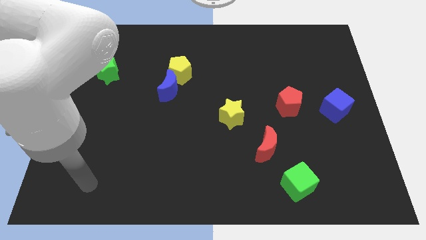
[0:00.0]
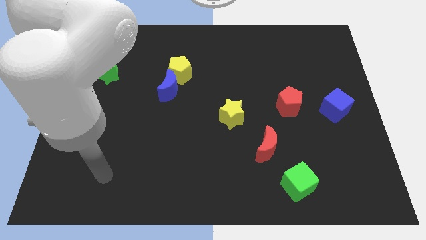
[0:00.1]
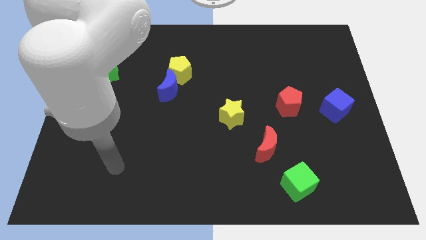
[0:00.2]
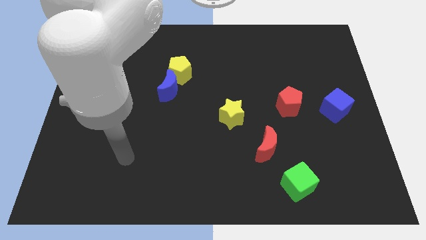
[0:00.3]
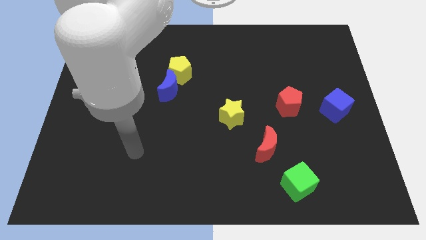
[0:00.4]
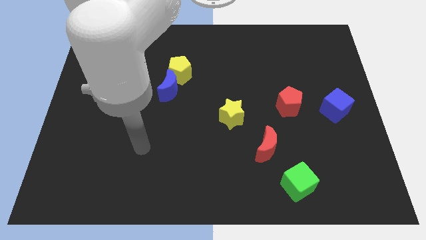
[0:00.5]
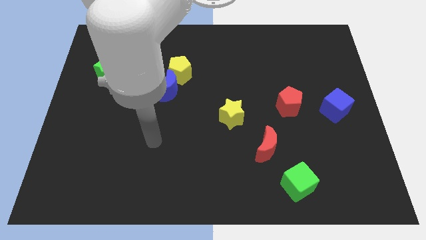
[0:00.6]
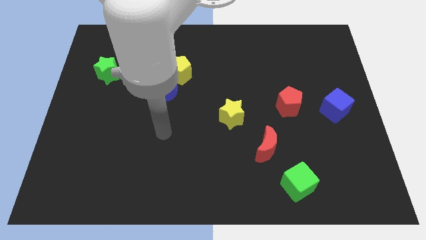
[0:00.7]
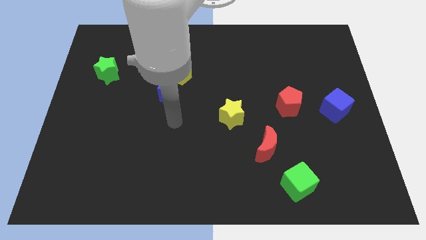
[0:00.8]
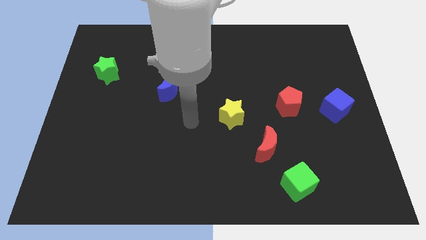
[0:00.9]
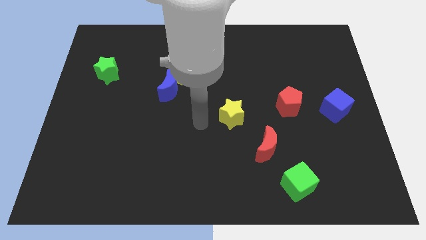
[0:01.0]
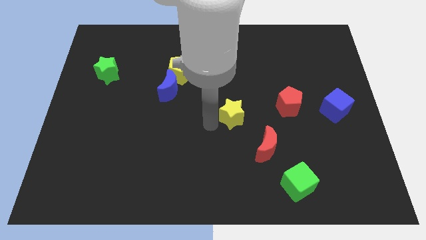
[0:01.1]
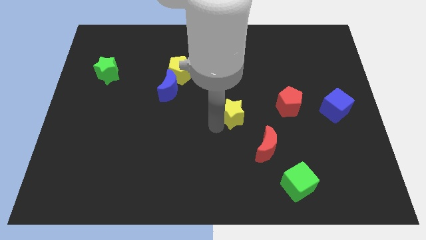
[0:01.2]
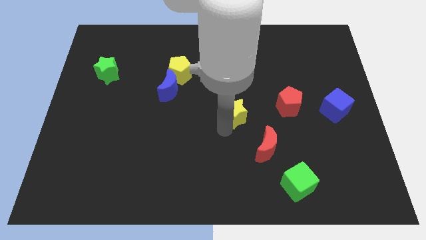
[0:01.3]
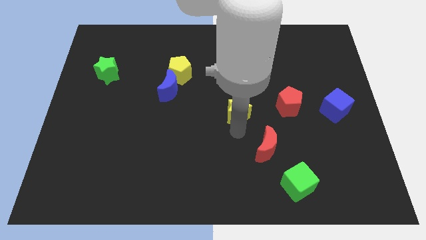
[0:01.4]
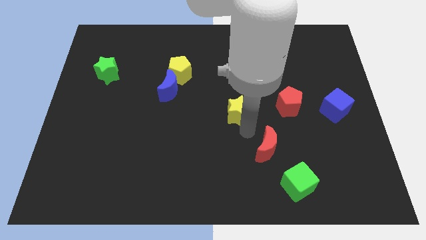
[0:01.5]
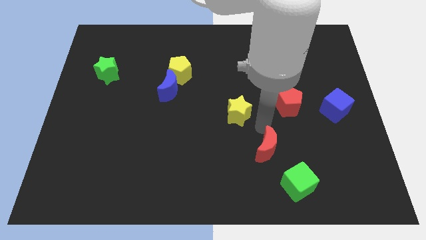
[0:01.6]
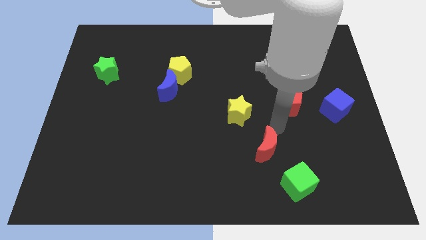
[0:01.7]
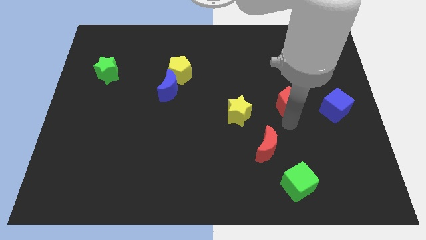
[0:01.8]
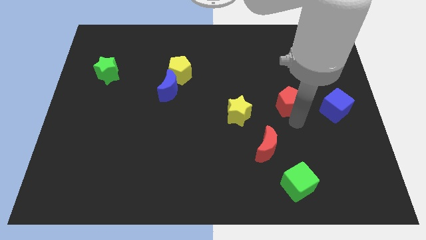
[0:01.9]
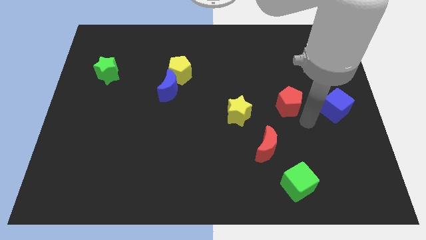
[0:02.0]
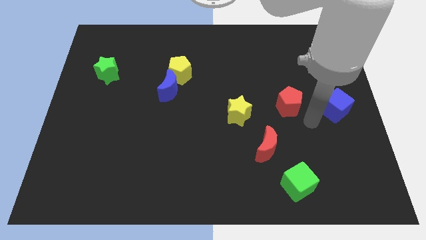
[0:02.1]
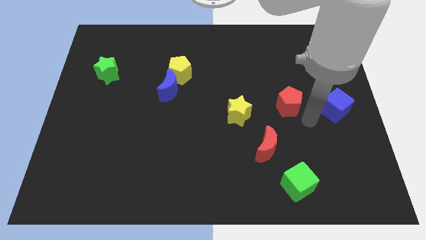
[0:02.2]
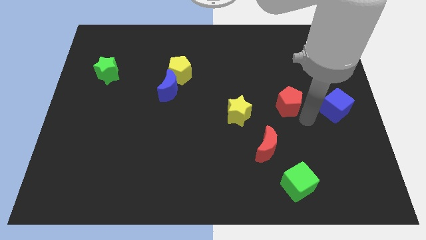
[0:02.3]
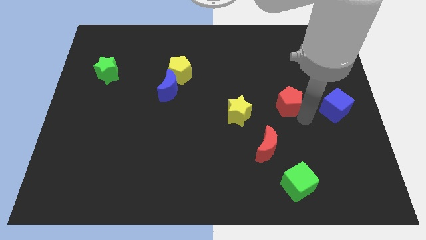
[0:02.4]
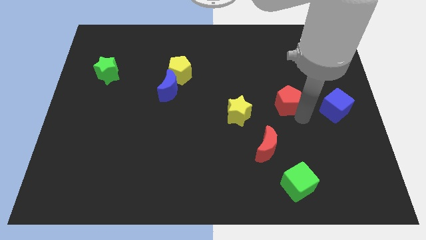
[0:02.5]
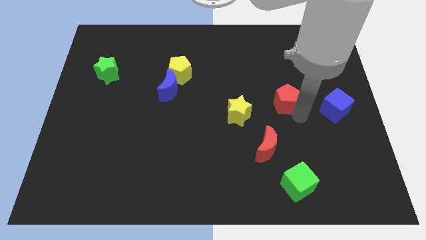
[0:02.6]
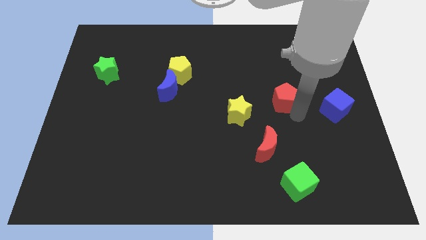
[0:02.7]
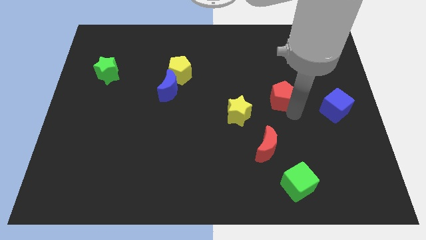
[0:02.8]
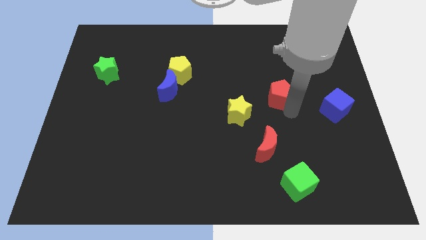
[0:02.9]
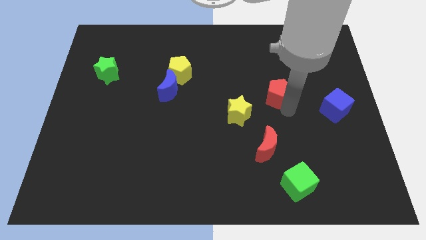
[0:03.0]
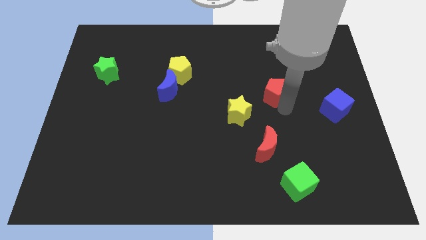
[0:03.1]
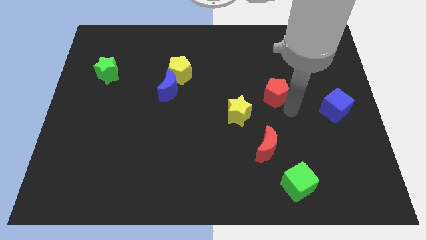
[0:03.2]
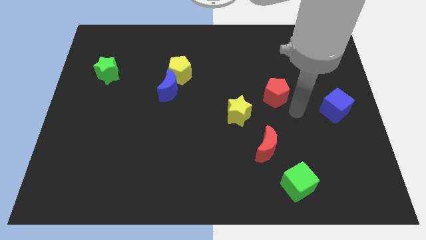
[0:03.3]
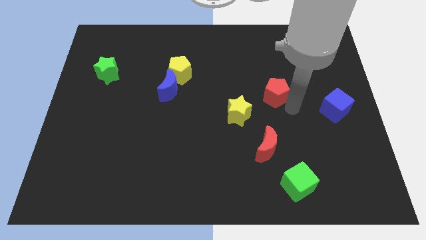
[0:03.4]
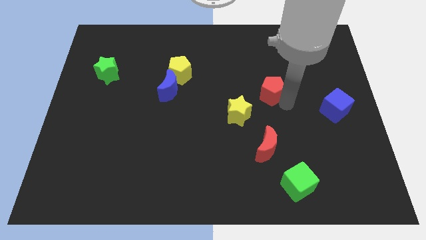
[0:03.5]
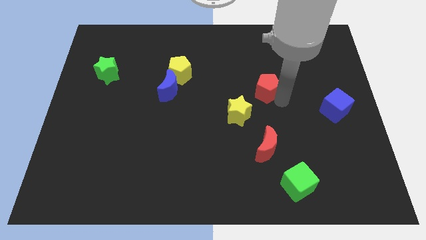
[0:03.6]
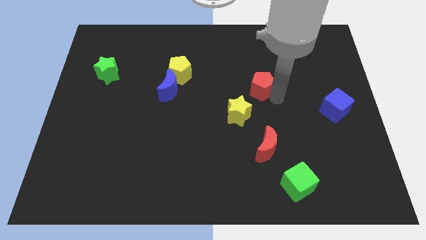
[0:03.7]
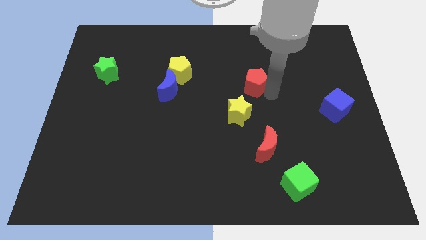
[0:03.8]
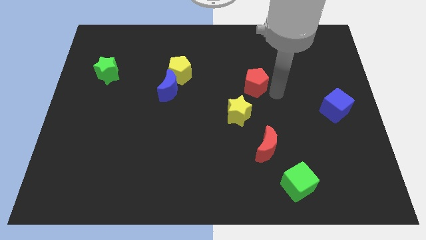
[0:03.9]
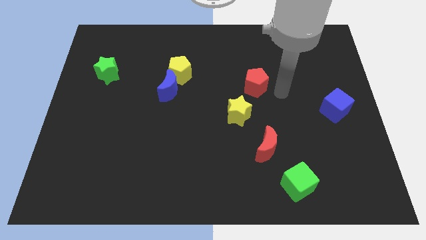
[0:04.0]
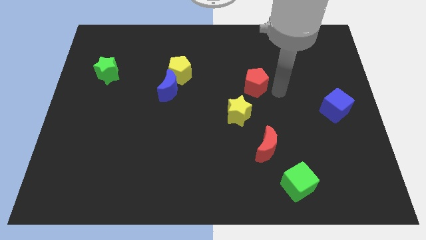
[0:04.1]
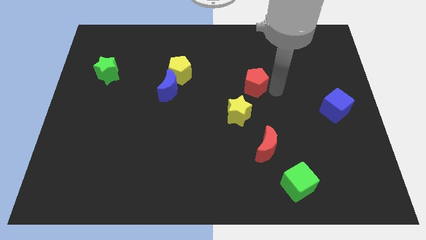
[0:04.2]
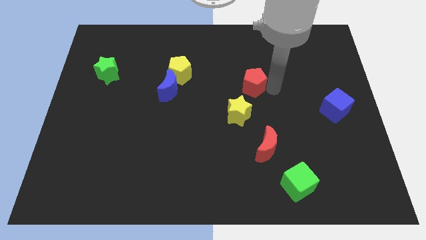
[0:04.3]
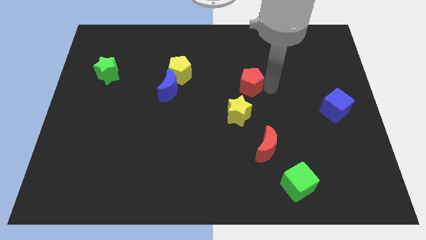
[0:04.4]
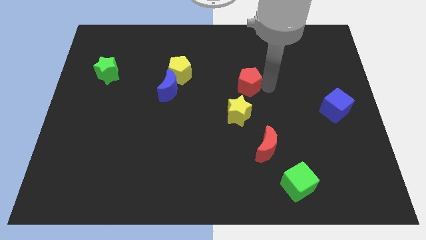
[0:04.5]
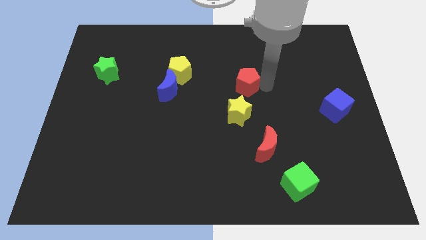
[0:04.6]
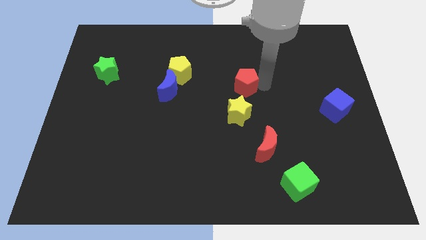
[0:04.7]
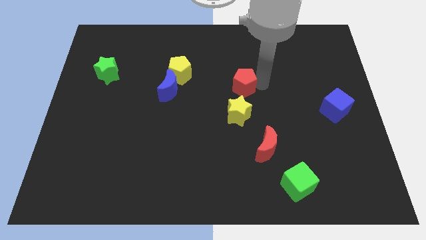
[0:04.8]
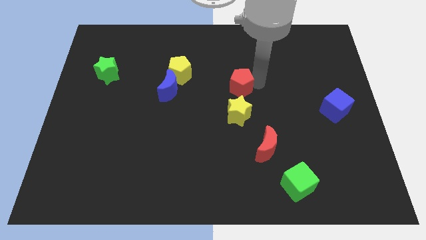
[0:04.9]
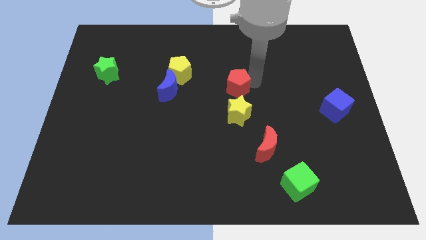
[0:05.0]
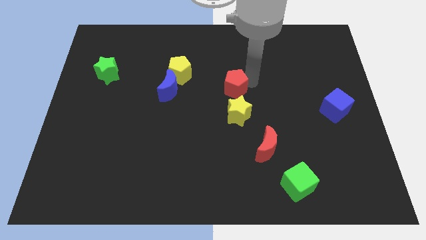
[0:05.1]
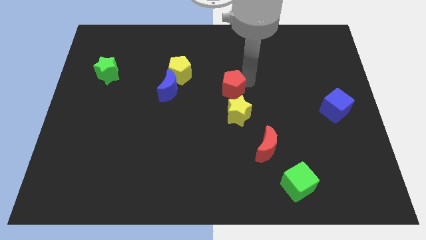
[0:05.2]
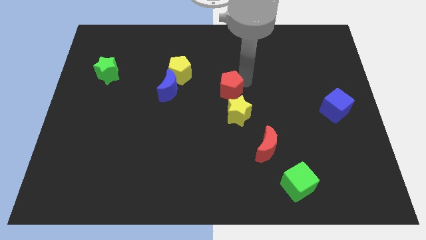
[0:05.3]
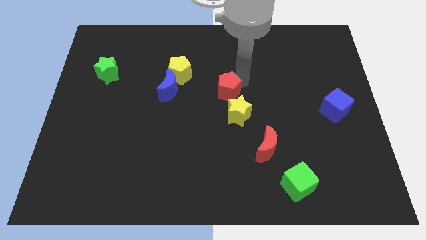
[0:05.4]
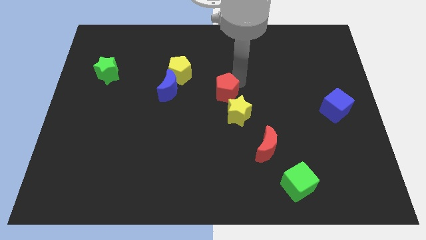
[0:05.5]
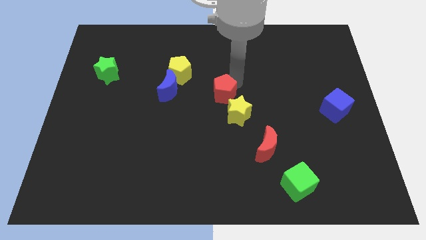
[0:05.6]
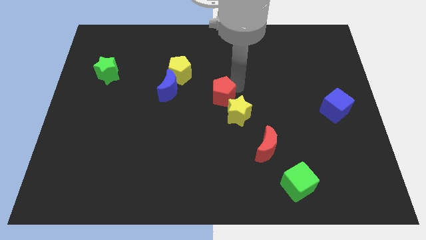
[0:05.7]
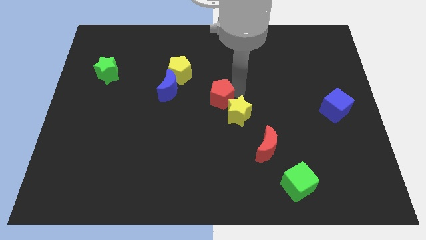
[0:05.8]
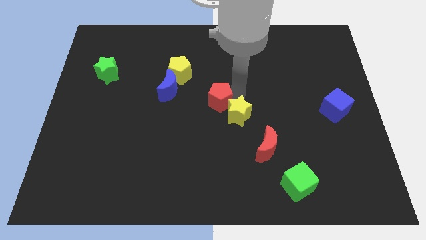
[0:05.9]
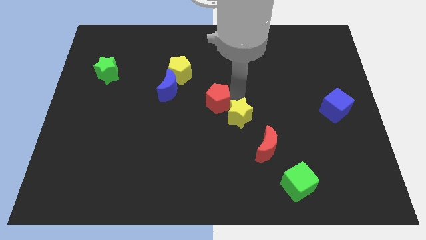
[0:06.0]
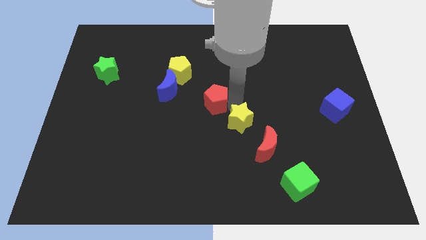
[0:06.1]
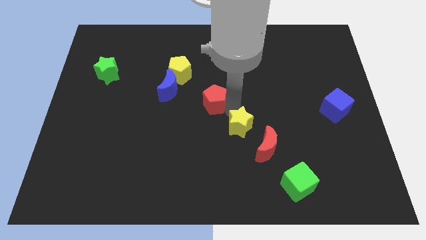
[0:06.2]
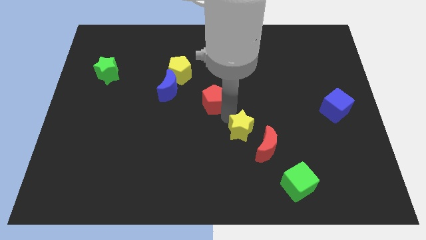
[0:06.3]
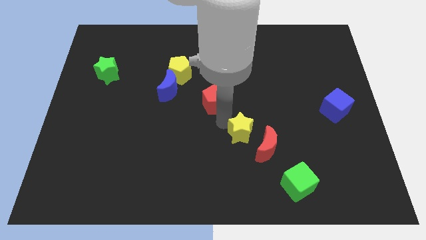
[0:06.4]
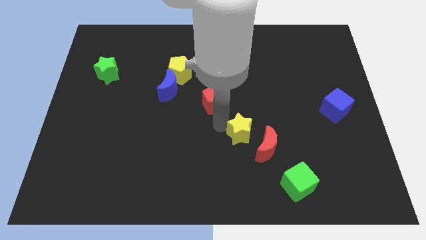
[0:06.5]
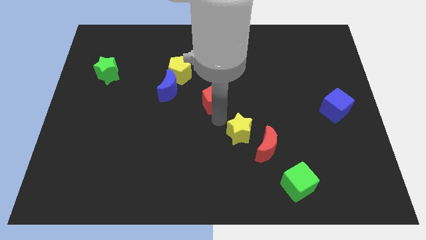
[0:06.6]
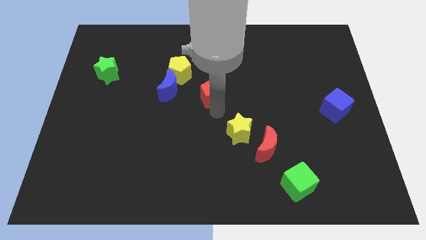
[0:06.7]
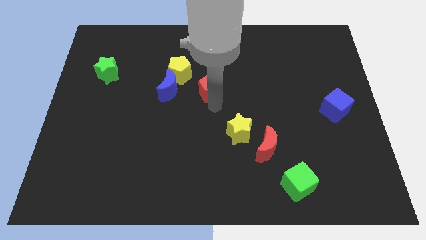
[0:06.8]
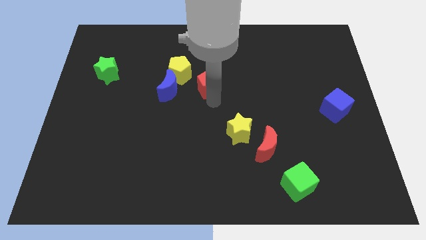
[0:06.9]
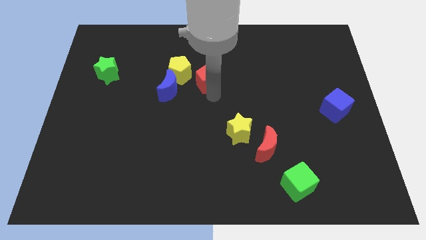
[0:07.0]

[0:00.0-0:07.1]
move the red pentagon to the top right of the blue moon

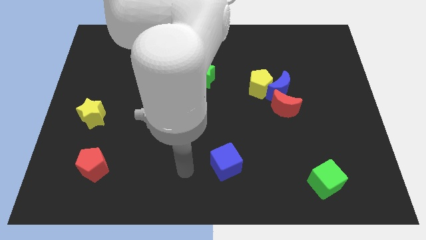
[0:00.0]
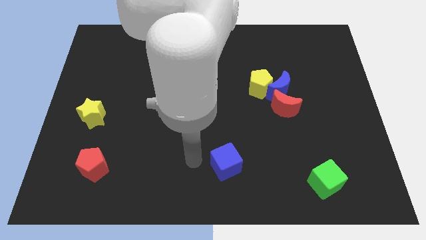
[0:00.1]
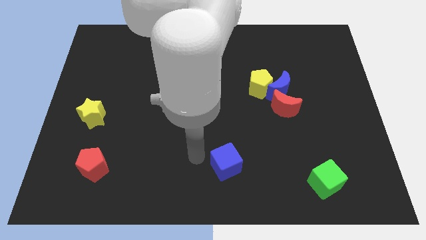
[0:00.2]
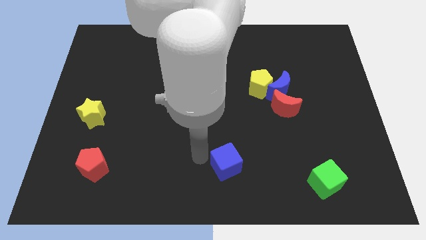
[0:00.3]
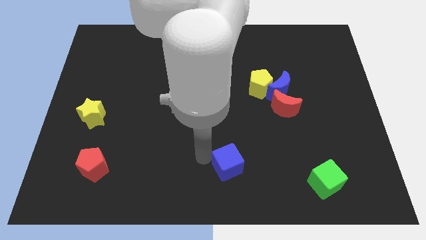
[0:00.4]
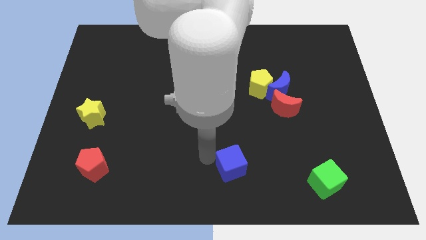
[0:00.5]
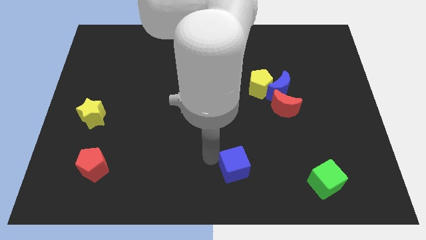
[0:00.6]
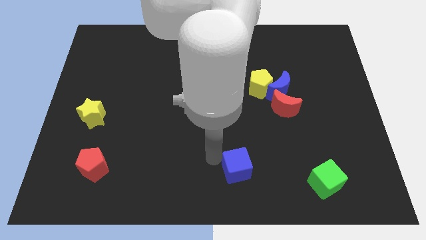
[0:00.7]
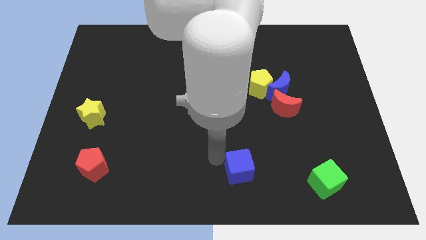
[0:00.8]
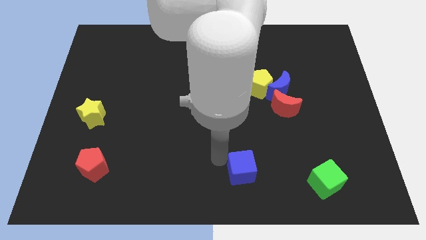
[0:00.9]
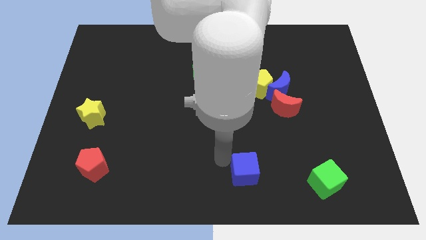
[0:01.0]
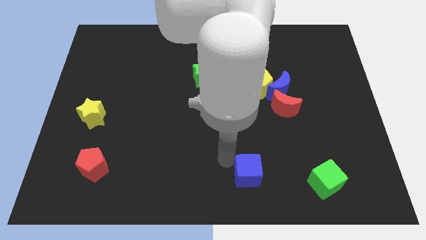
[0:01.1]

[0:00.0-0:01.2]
move the blue cube left of the green cube
